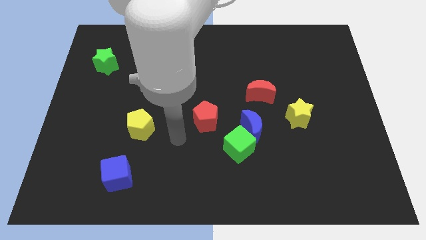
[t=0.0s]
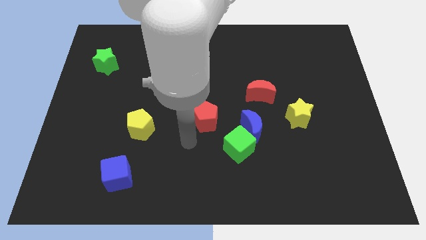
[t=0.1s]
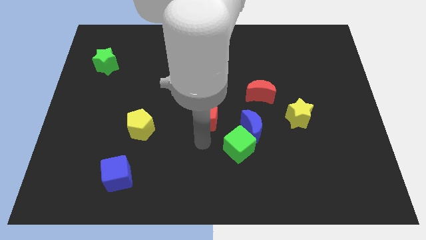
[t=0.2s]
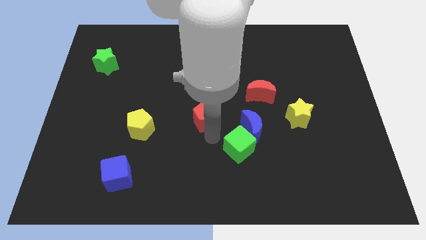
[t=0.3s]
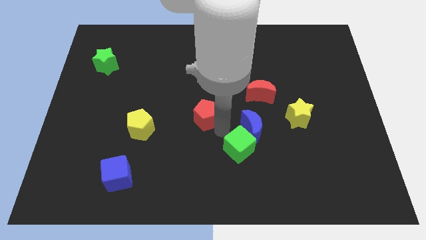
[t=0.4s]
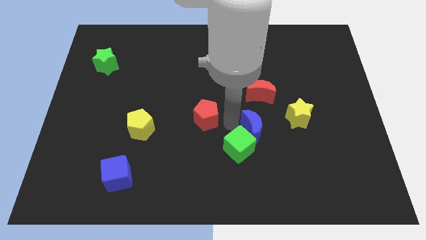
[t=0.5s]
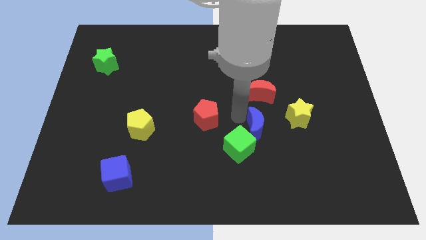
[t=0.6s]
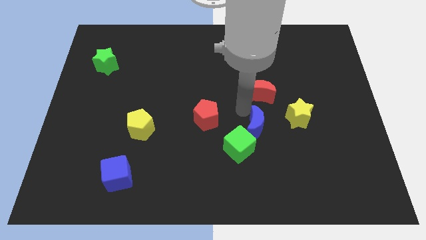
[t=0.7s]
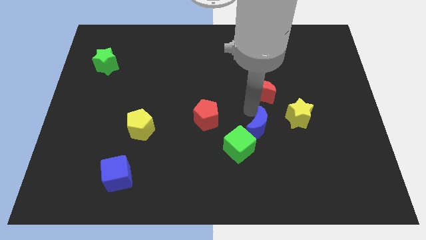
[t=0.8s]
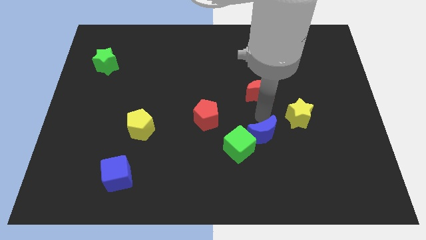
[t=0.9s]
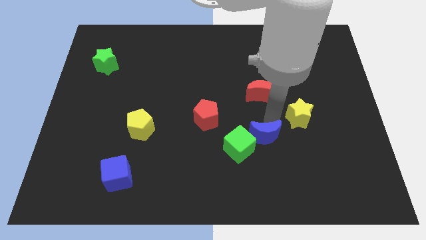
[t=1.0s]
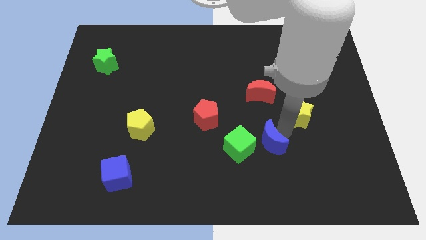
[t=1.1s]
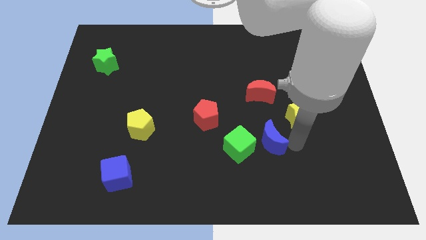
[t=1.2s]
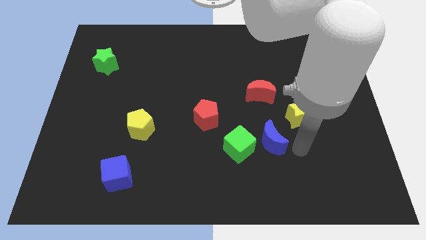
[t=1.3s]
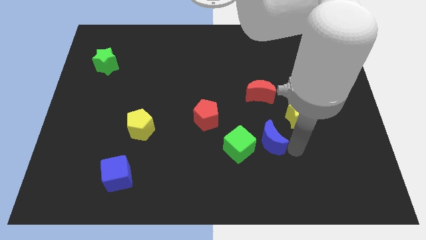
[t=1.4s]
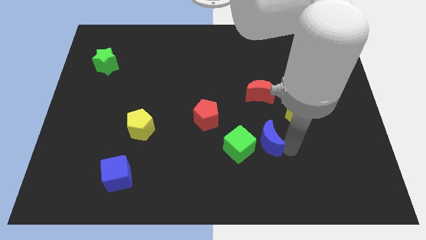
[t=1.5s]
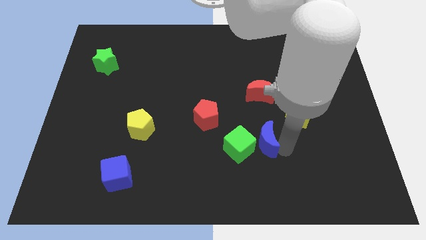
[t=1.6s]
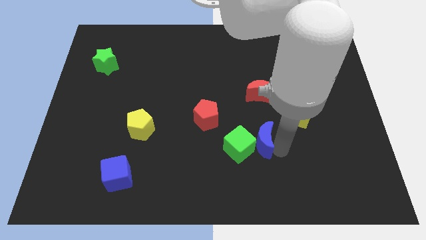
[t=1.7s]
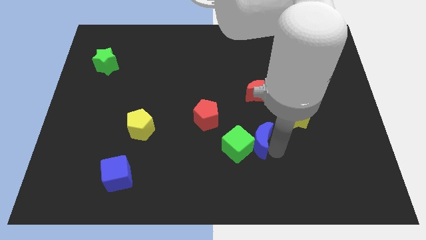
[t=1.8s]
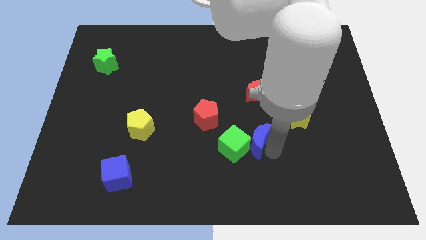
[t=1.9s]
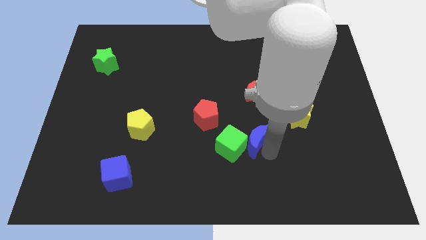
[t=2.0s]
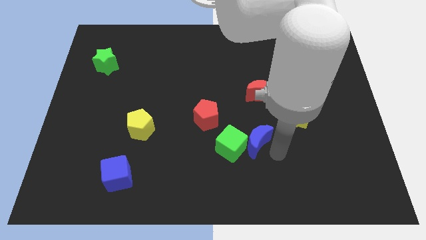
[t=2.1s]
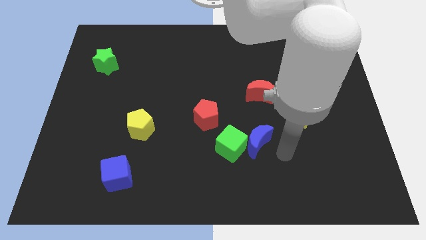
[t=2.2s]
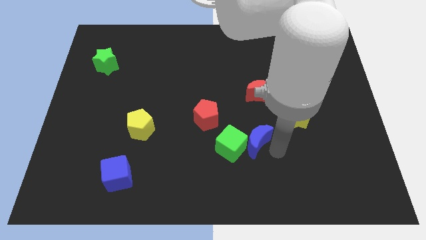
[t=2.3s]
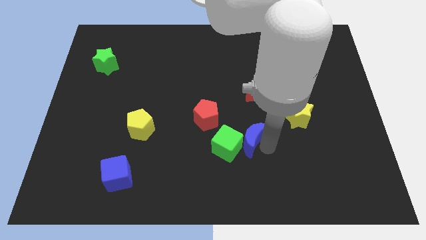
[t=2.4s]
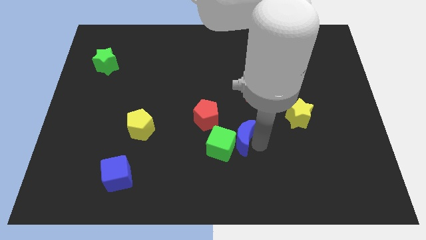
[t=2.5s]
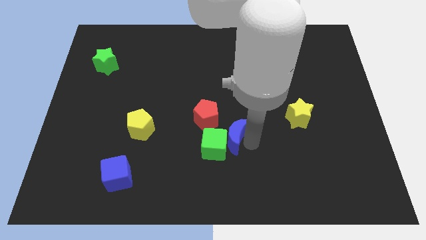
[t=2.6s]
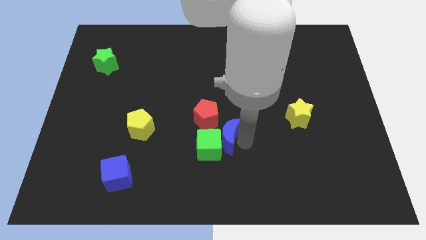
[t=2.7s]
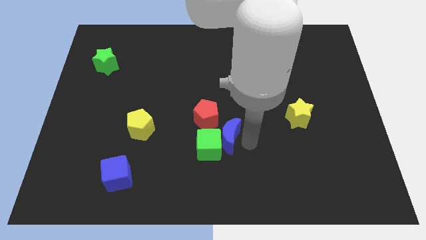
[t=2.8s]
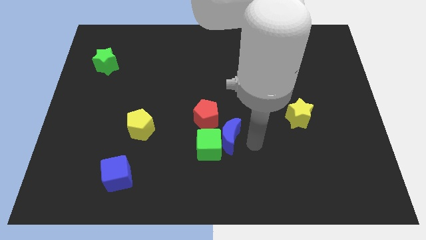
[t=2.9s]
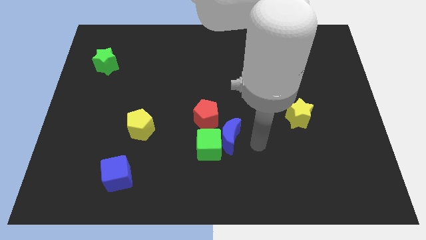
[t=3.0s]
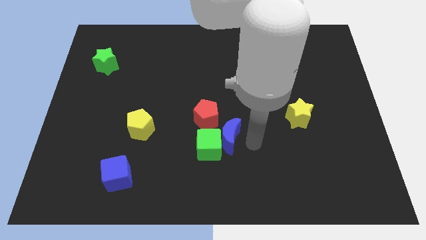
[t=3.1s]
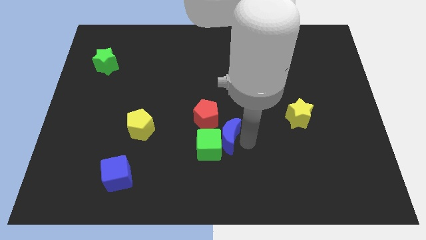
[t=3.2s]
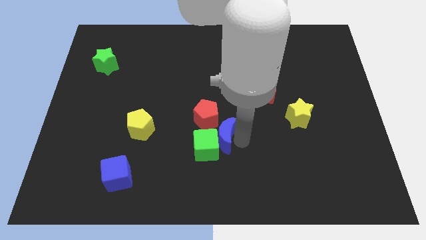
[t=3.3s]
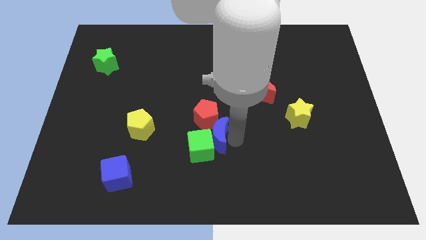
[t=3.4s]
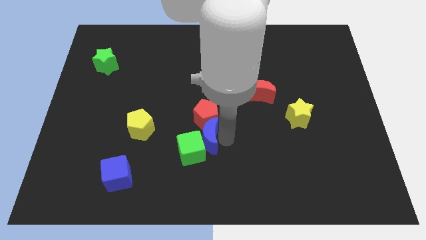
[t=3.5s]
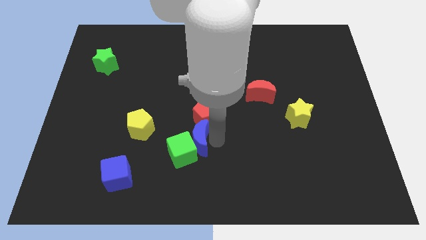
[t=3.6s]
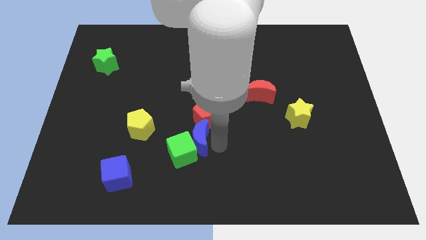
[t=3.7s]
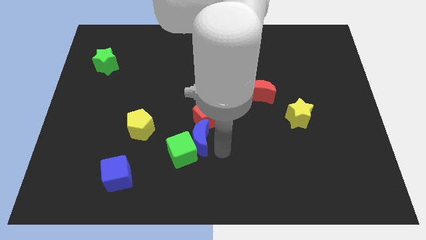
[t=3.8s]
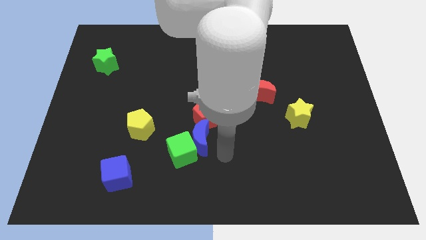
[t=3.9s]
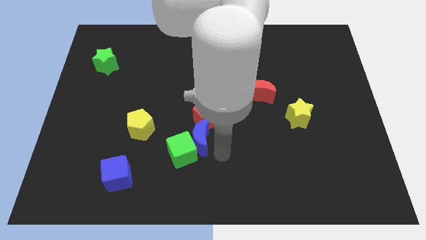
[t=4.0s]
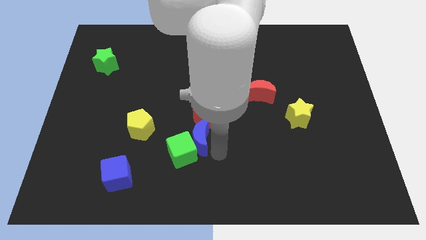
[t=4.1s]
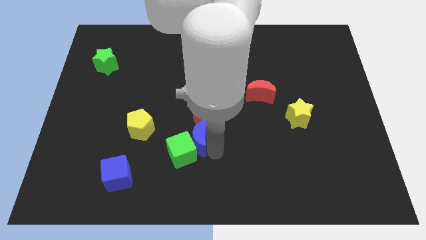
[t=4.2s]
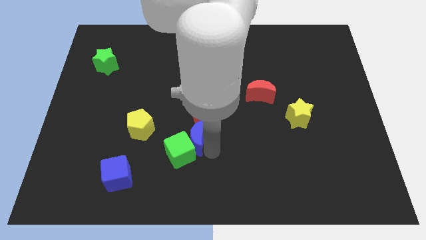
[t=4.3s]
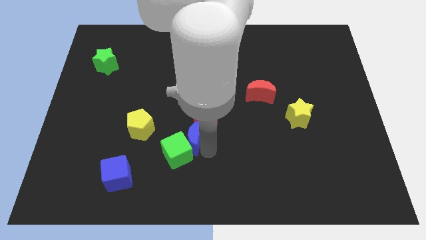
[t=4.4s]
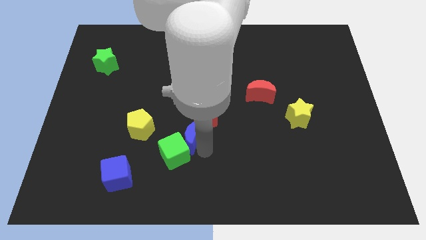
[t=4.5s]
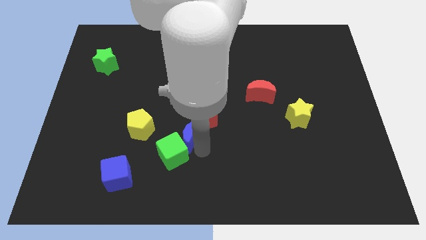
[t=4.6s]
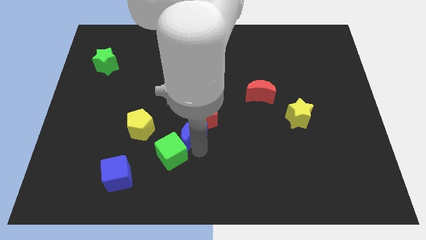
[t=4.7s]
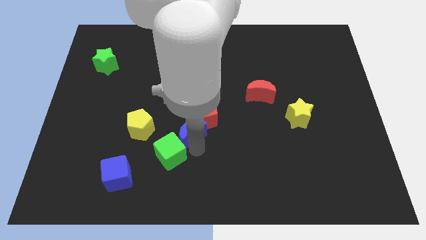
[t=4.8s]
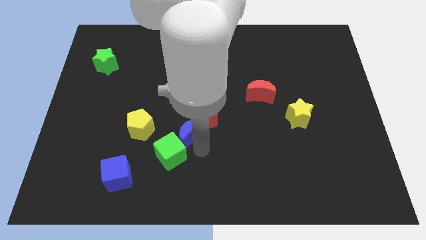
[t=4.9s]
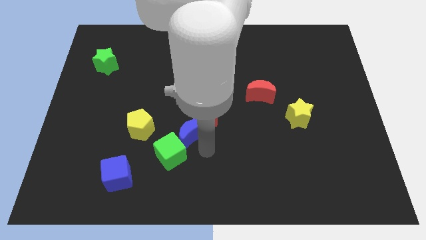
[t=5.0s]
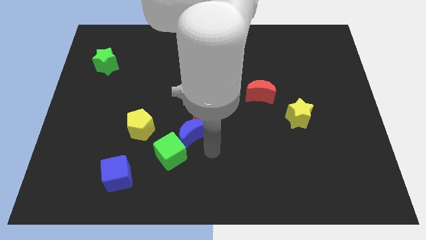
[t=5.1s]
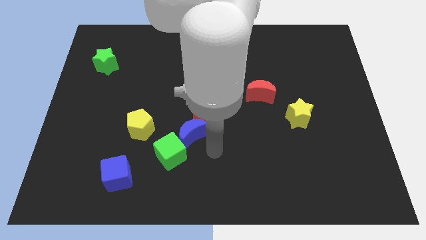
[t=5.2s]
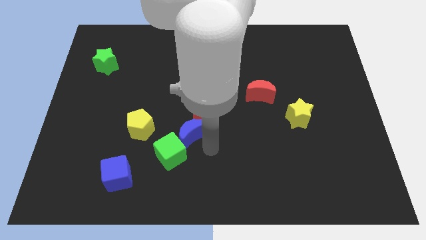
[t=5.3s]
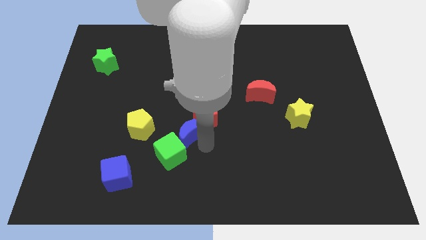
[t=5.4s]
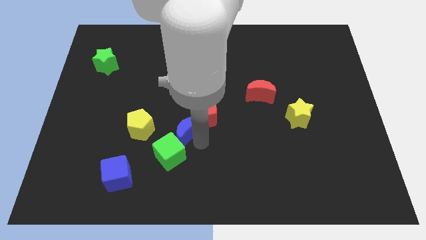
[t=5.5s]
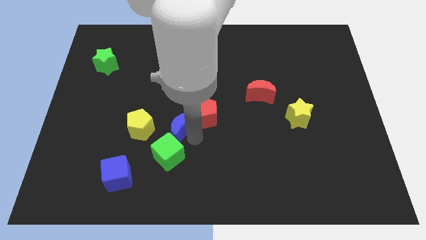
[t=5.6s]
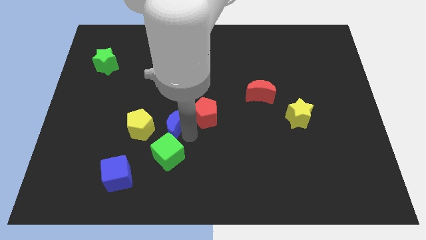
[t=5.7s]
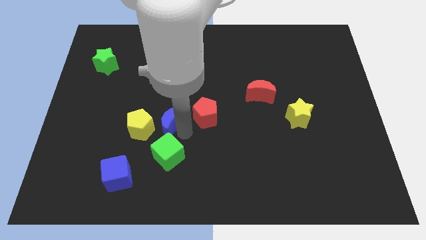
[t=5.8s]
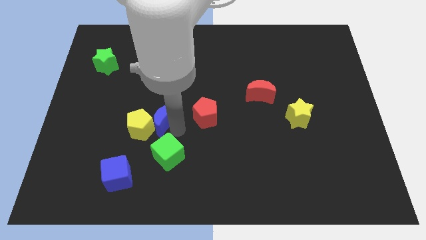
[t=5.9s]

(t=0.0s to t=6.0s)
slide the blue moon to the left

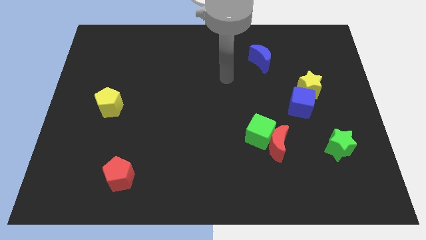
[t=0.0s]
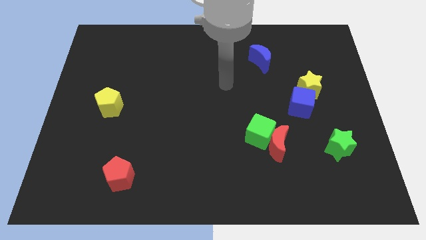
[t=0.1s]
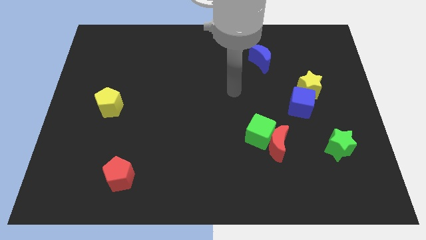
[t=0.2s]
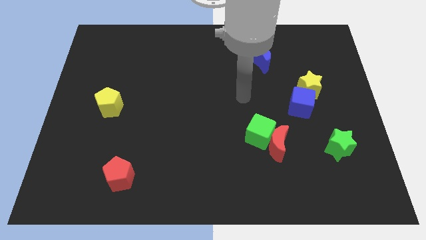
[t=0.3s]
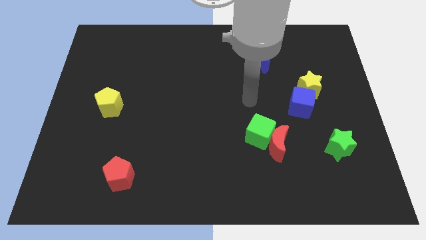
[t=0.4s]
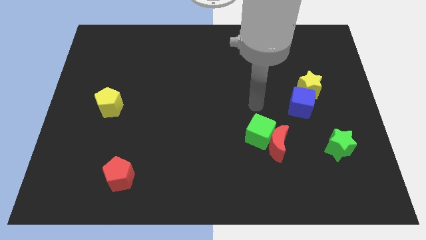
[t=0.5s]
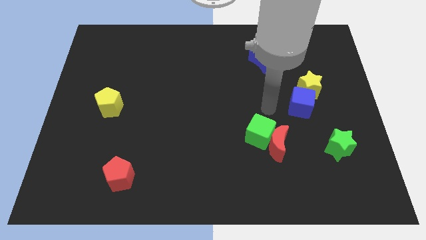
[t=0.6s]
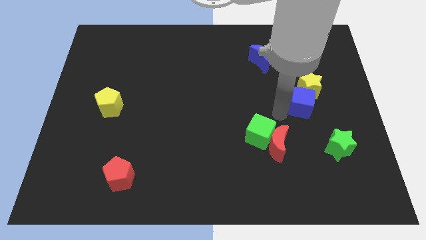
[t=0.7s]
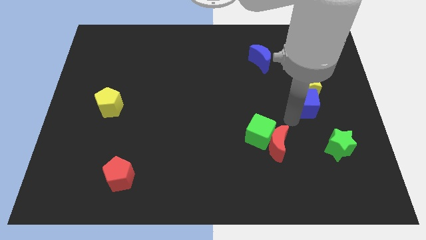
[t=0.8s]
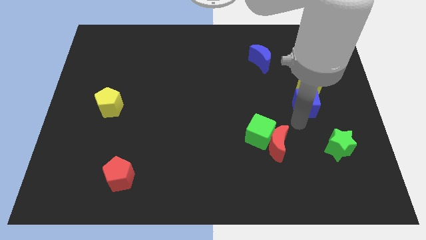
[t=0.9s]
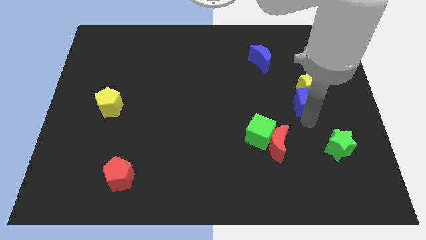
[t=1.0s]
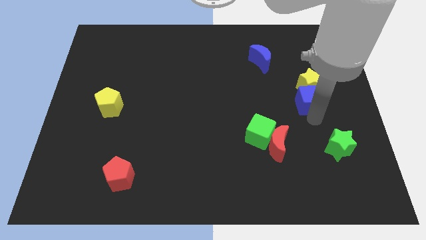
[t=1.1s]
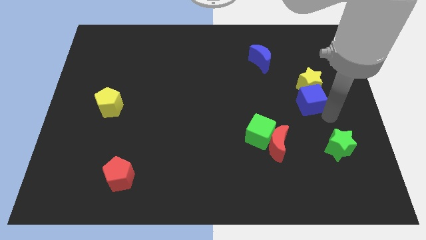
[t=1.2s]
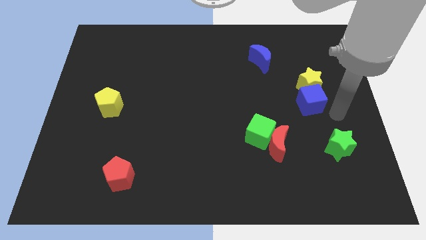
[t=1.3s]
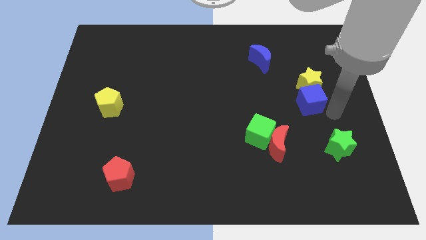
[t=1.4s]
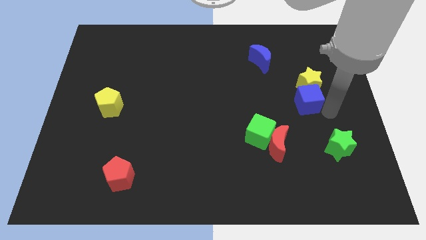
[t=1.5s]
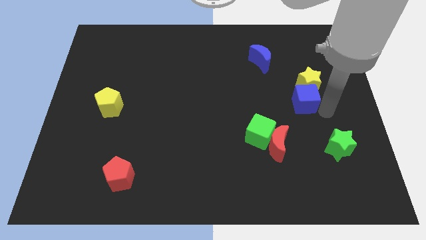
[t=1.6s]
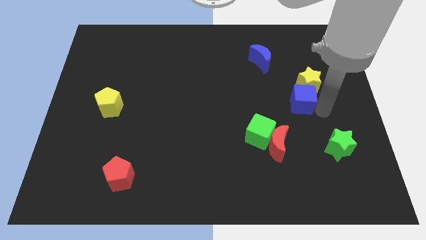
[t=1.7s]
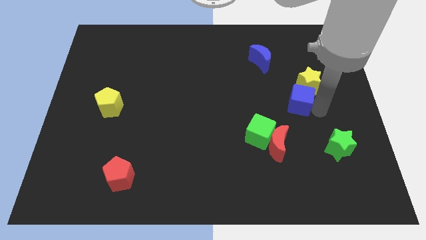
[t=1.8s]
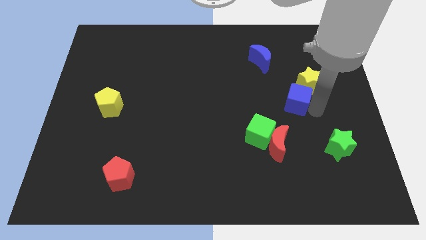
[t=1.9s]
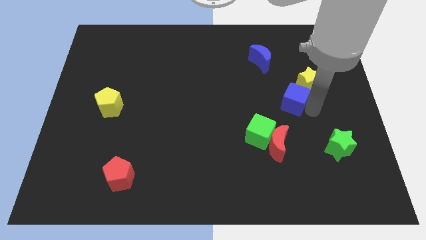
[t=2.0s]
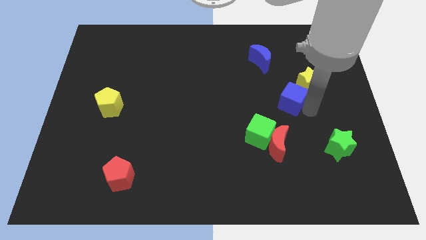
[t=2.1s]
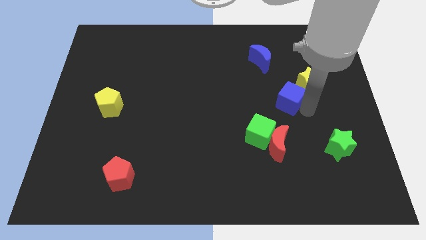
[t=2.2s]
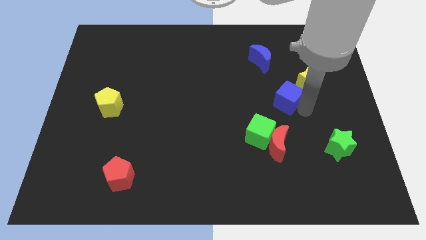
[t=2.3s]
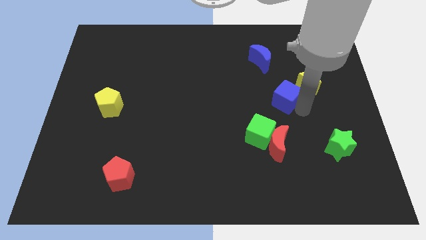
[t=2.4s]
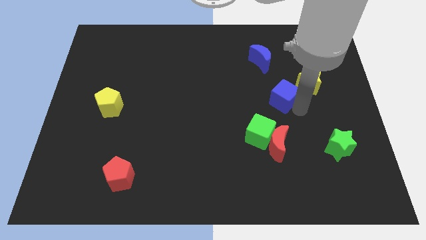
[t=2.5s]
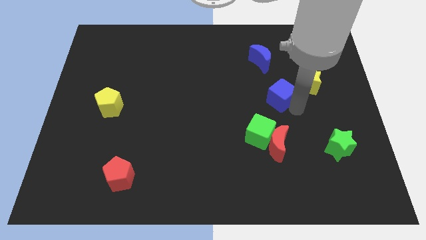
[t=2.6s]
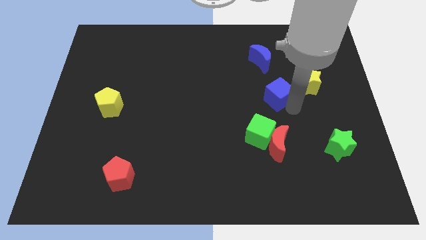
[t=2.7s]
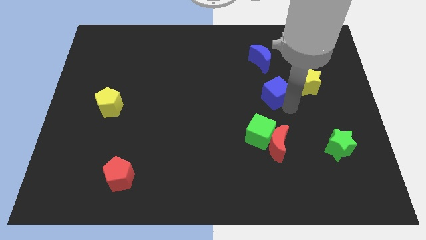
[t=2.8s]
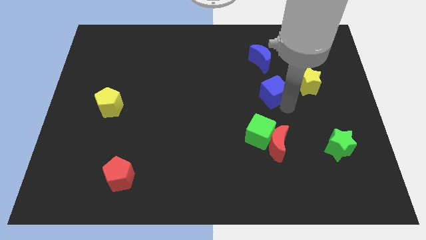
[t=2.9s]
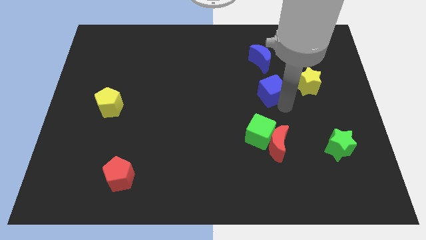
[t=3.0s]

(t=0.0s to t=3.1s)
slightly move the blue cube up and left diagonally
